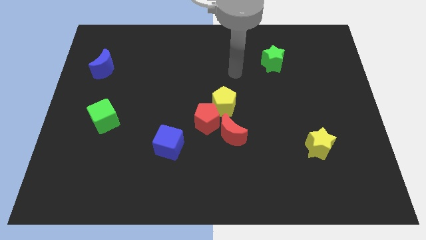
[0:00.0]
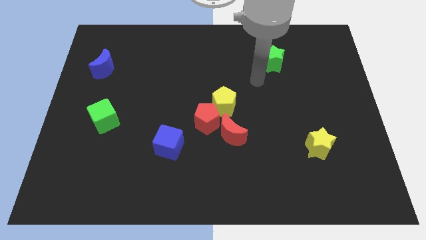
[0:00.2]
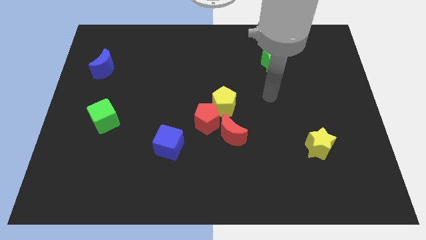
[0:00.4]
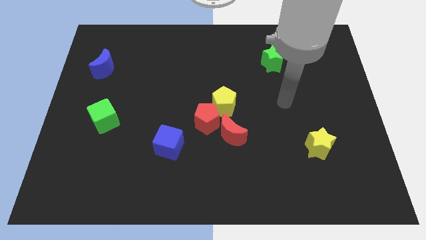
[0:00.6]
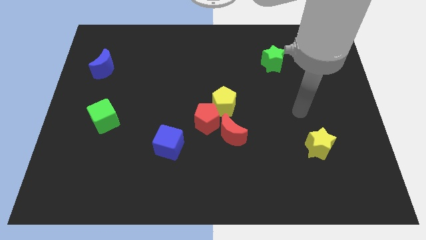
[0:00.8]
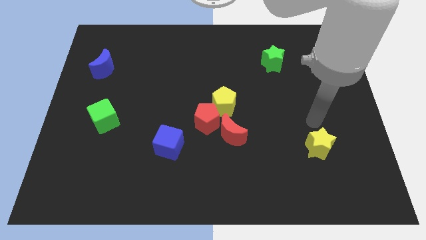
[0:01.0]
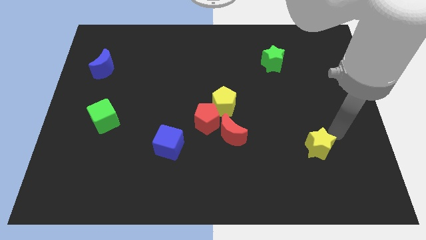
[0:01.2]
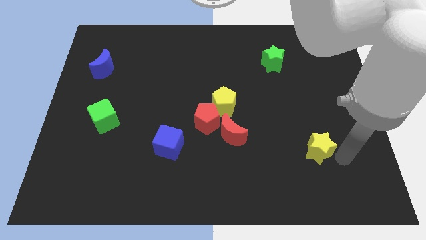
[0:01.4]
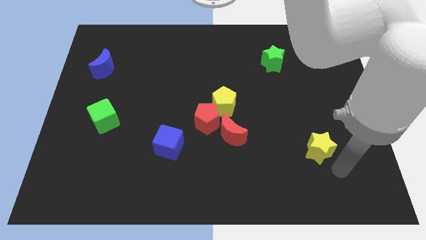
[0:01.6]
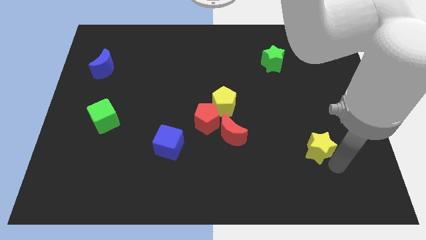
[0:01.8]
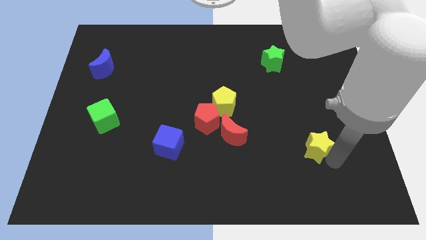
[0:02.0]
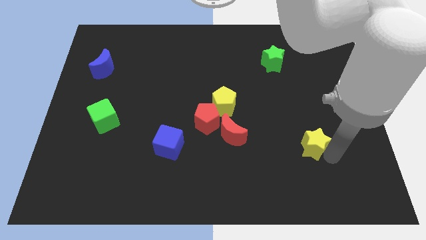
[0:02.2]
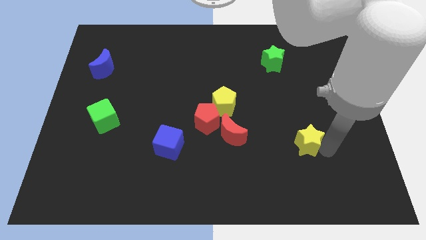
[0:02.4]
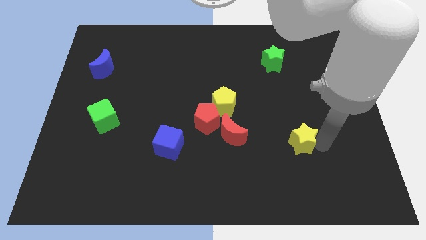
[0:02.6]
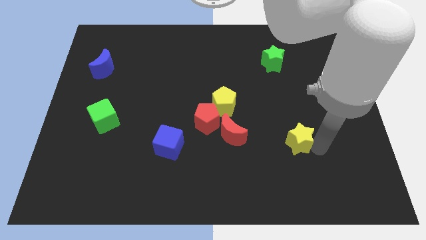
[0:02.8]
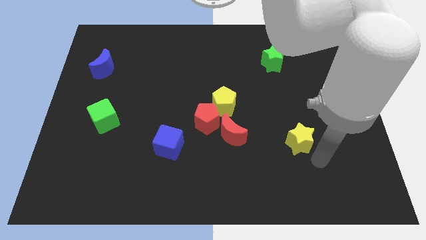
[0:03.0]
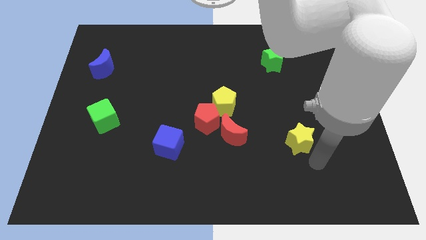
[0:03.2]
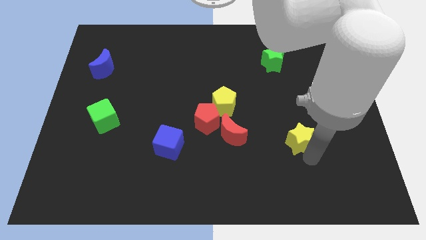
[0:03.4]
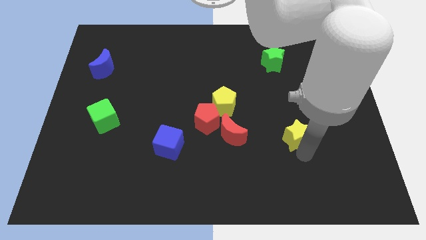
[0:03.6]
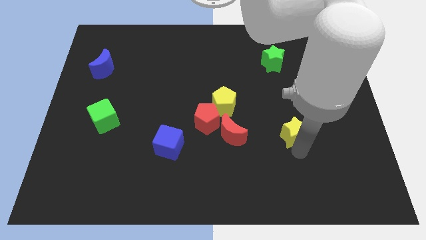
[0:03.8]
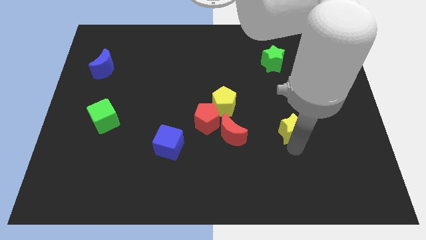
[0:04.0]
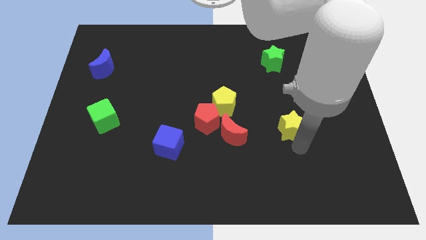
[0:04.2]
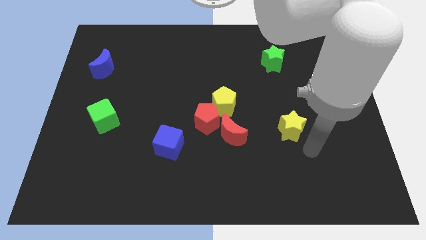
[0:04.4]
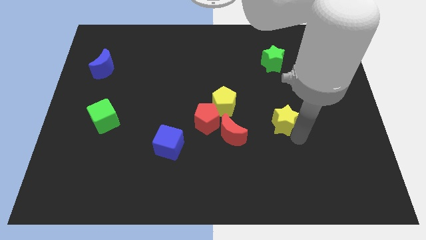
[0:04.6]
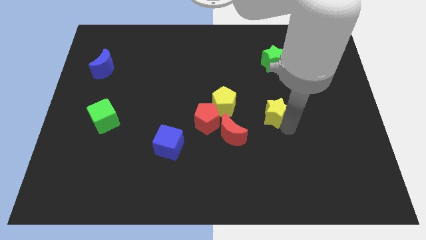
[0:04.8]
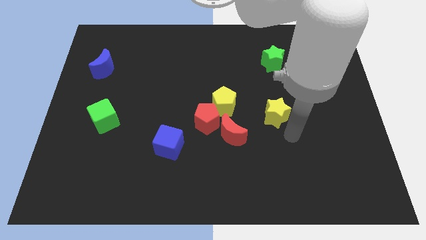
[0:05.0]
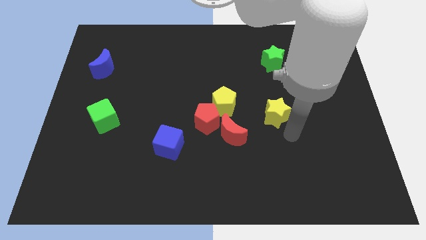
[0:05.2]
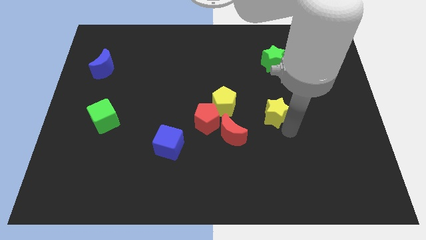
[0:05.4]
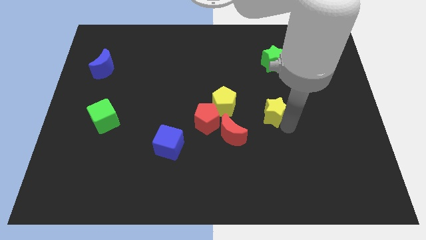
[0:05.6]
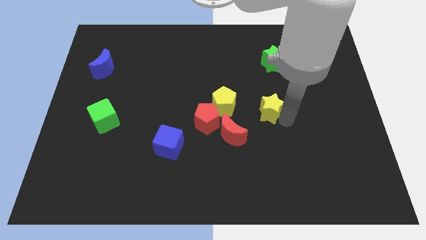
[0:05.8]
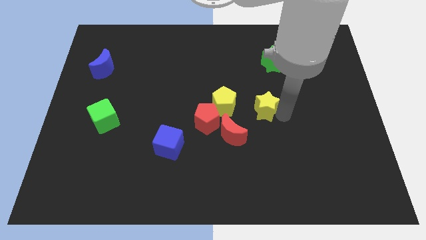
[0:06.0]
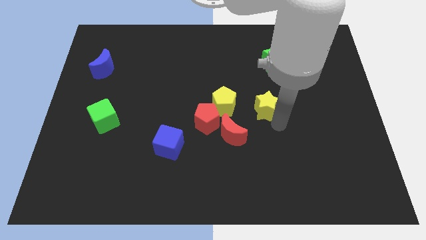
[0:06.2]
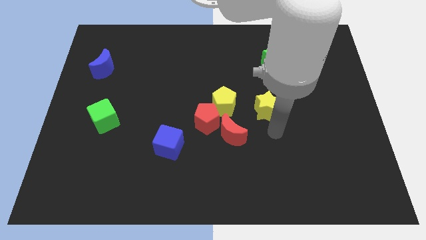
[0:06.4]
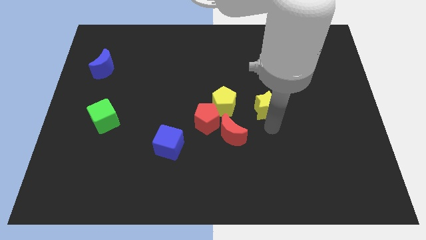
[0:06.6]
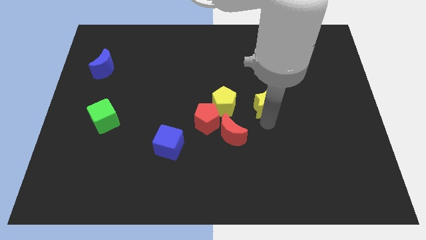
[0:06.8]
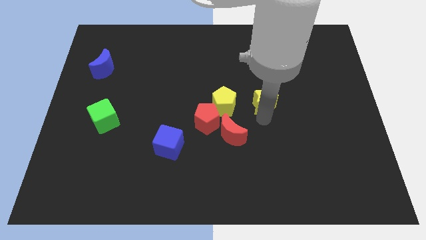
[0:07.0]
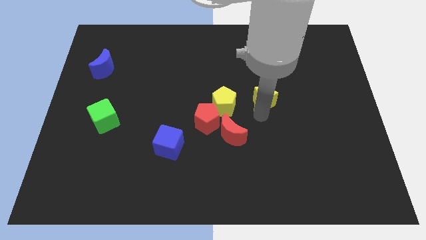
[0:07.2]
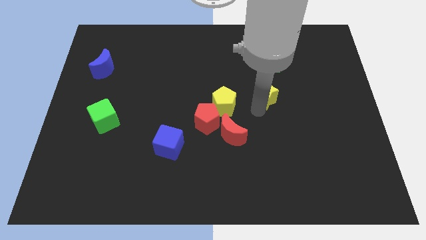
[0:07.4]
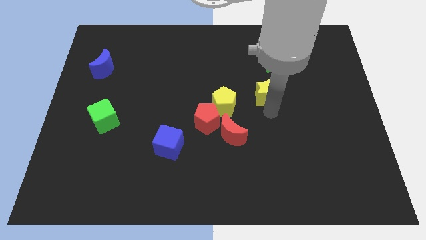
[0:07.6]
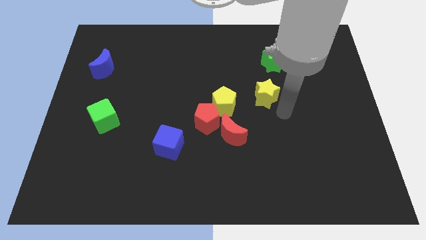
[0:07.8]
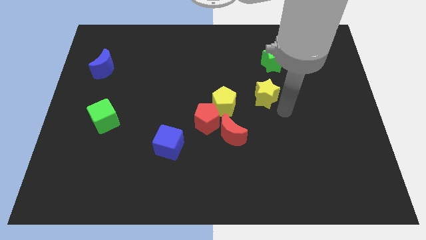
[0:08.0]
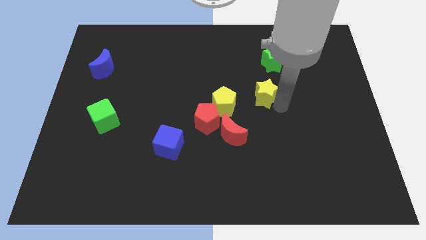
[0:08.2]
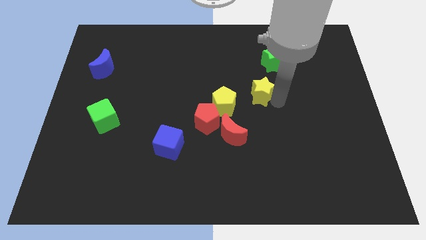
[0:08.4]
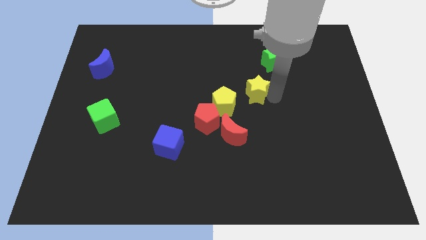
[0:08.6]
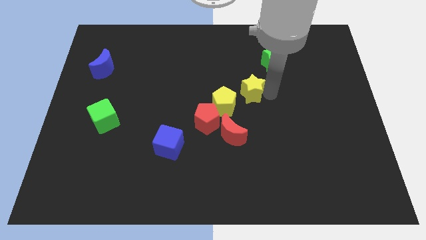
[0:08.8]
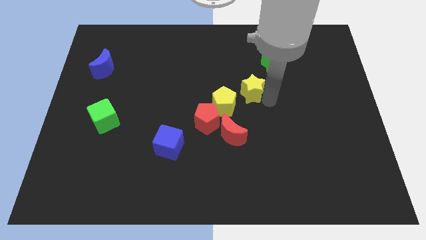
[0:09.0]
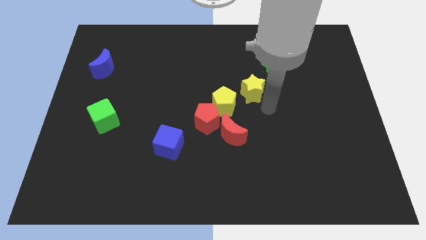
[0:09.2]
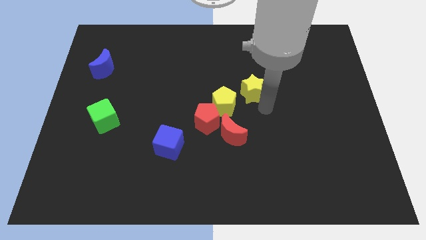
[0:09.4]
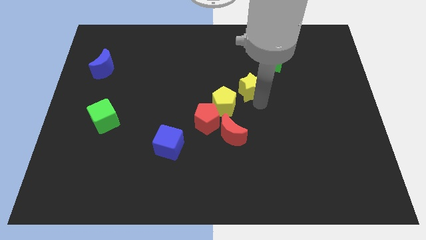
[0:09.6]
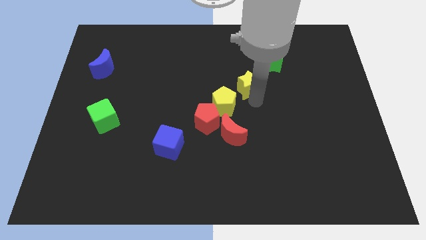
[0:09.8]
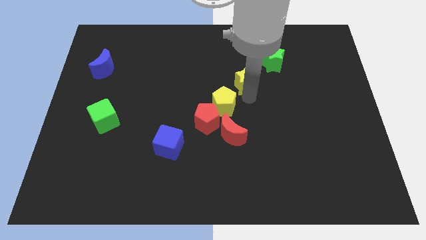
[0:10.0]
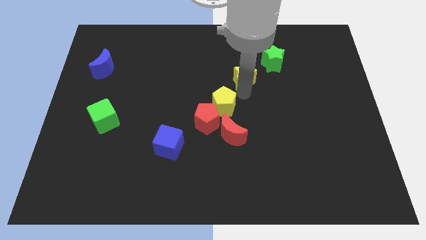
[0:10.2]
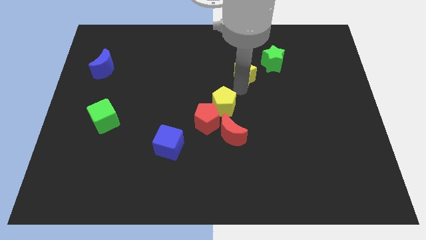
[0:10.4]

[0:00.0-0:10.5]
move the yellow star to the left of the green star

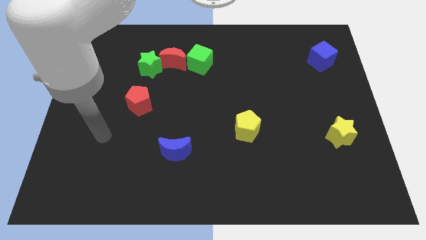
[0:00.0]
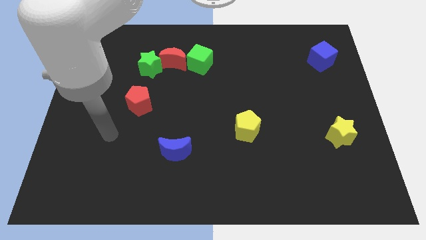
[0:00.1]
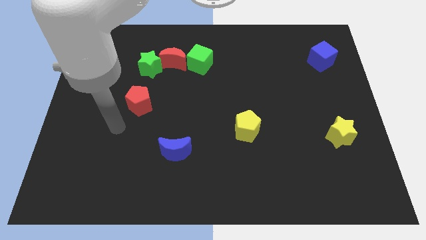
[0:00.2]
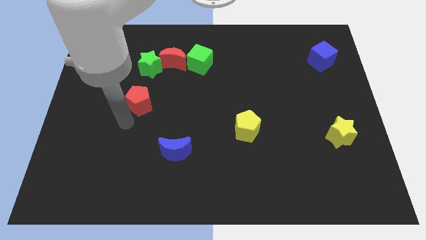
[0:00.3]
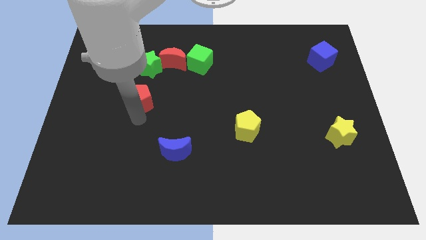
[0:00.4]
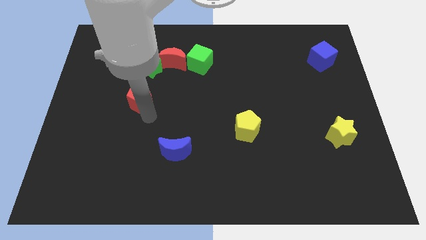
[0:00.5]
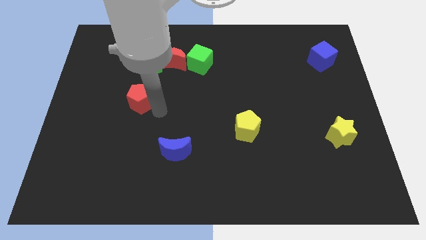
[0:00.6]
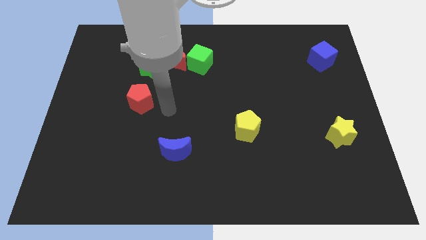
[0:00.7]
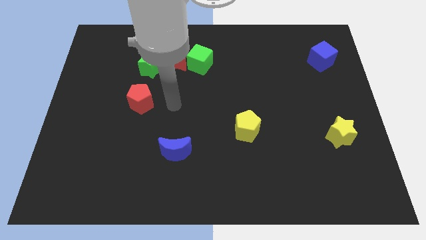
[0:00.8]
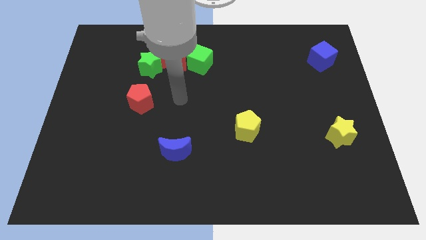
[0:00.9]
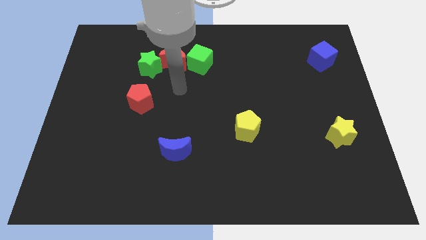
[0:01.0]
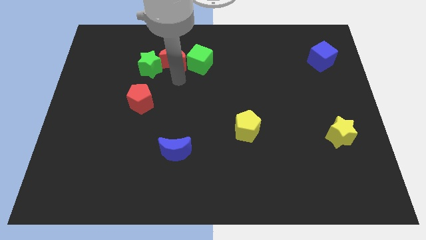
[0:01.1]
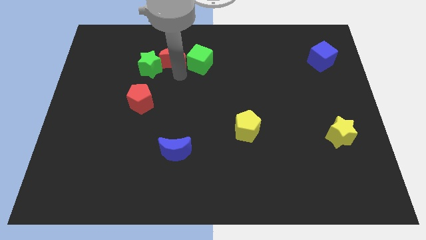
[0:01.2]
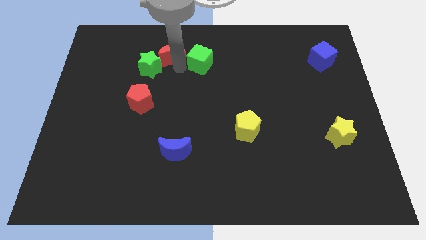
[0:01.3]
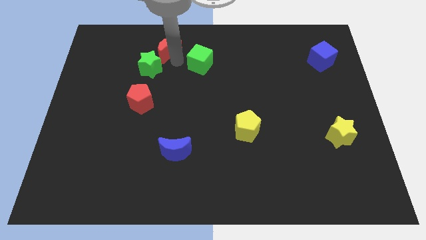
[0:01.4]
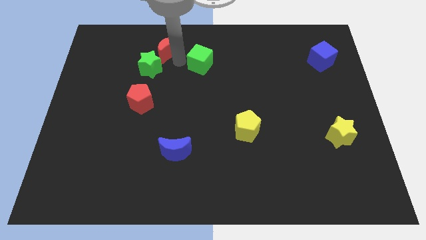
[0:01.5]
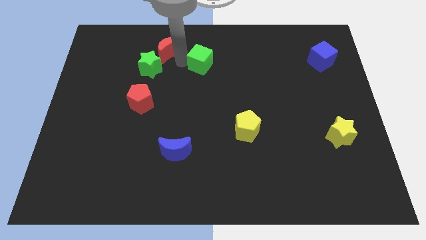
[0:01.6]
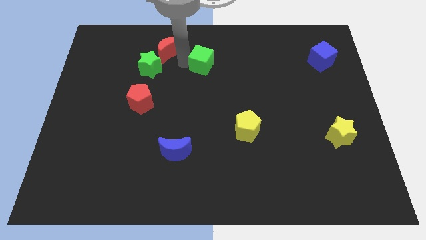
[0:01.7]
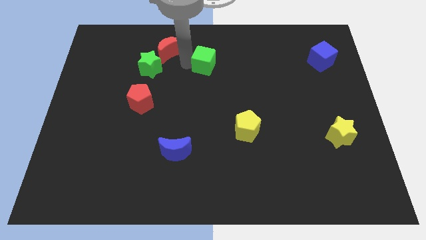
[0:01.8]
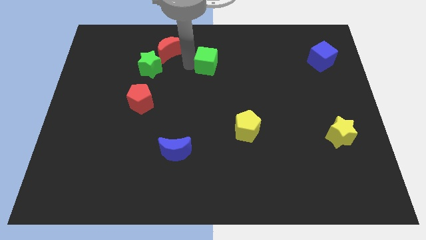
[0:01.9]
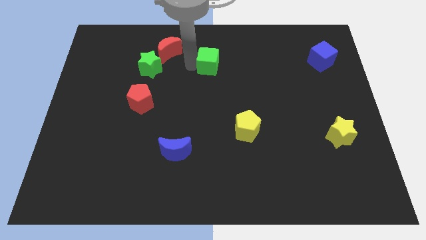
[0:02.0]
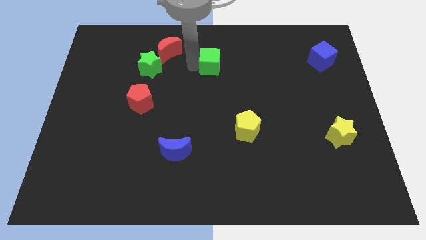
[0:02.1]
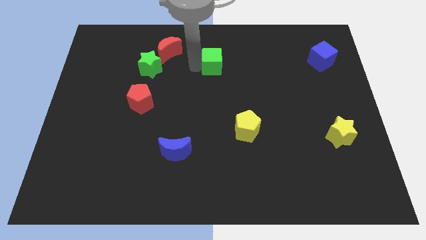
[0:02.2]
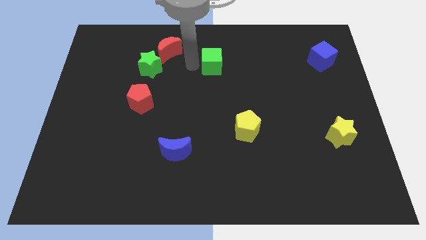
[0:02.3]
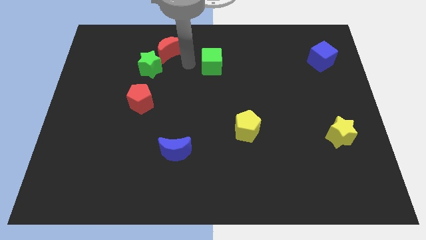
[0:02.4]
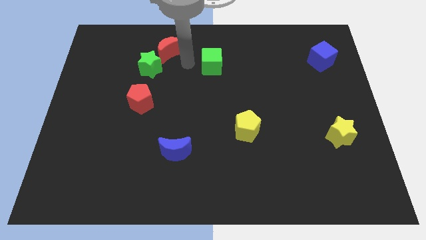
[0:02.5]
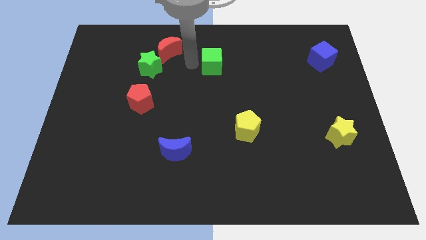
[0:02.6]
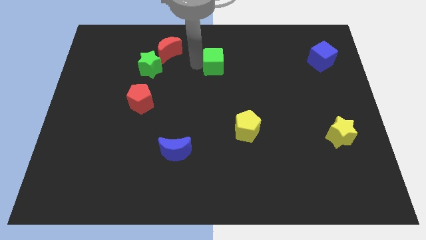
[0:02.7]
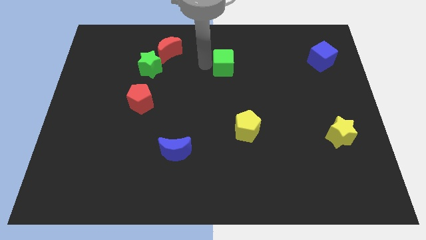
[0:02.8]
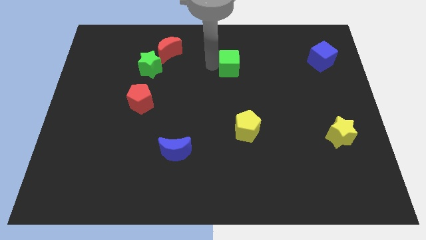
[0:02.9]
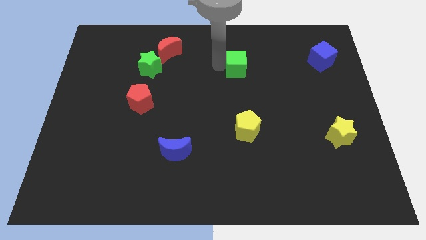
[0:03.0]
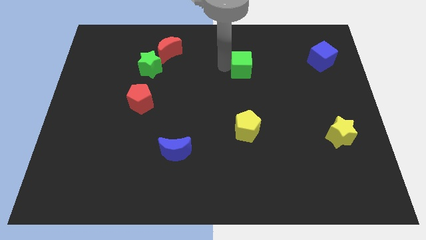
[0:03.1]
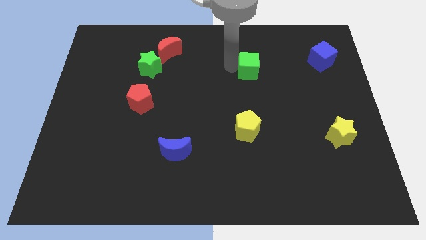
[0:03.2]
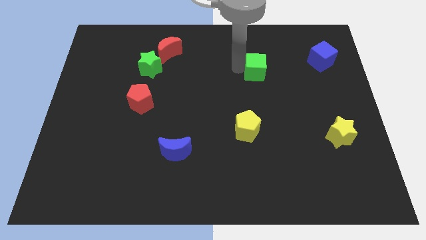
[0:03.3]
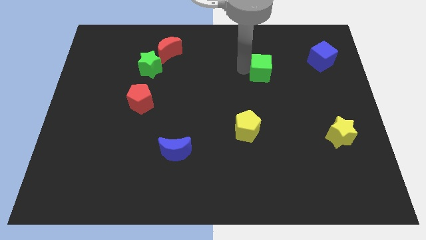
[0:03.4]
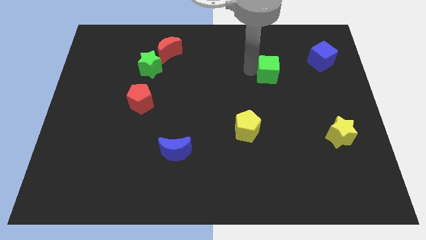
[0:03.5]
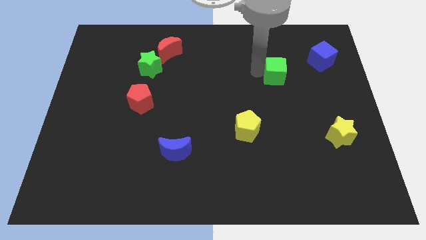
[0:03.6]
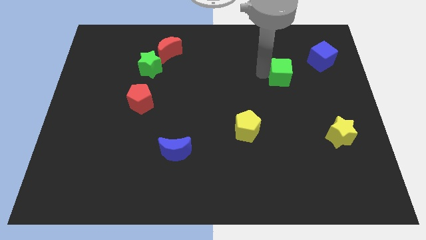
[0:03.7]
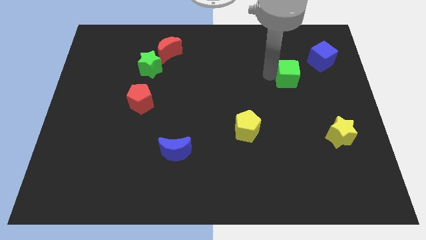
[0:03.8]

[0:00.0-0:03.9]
slide the green cube diagonally down and to the left of the blue cube
